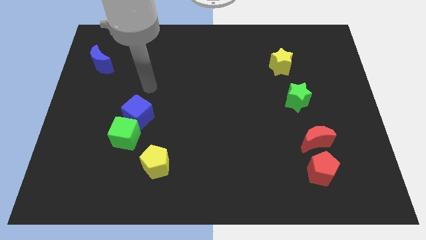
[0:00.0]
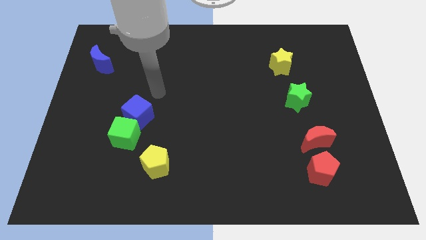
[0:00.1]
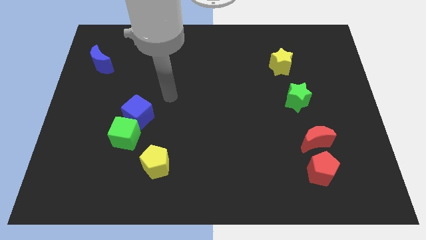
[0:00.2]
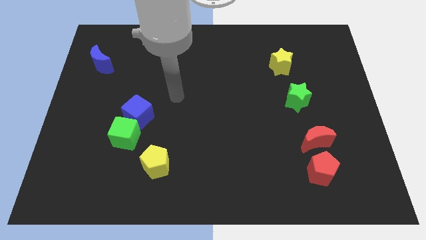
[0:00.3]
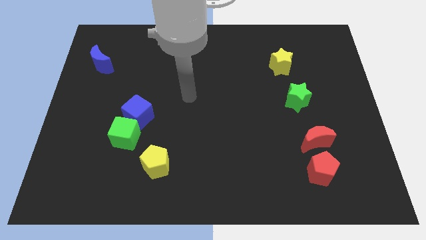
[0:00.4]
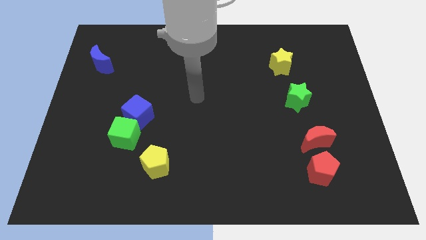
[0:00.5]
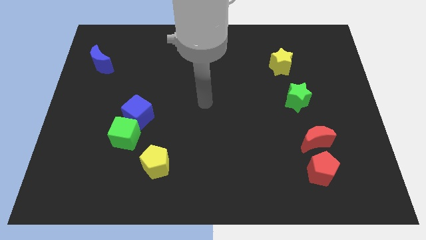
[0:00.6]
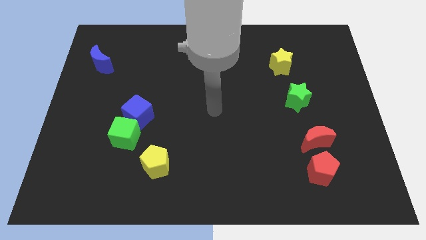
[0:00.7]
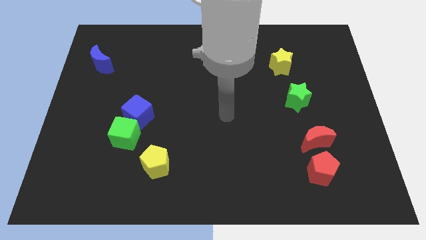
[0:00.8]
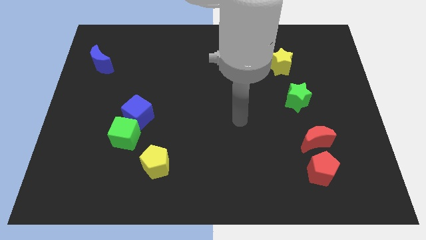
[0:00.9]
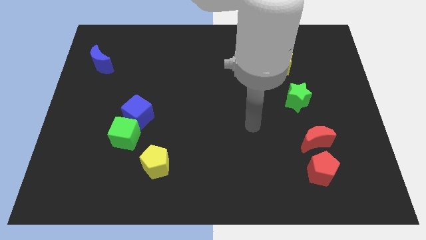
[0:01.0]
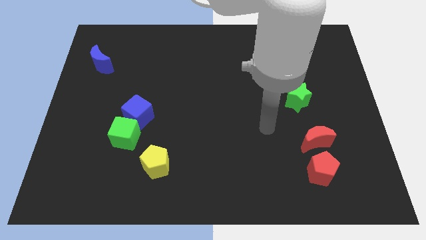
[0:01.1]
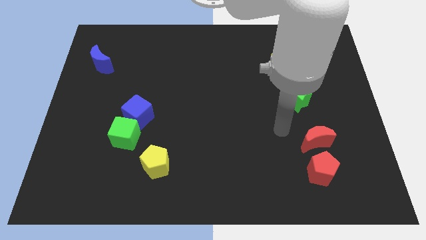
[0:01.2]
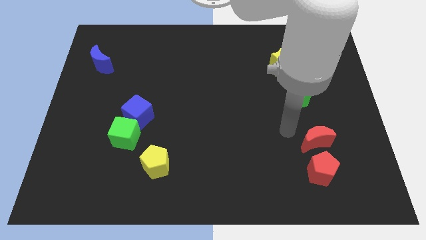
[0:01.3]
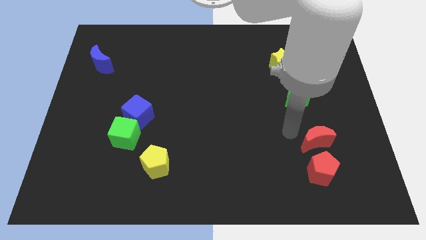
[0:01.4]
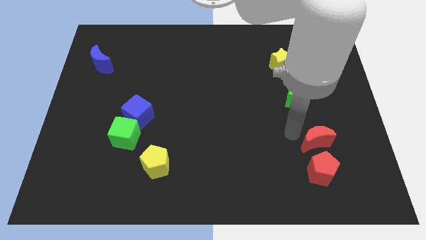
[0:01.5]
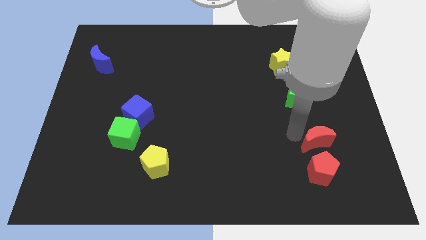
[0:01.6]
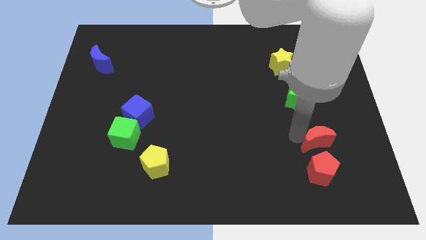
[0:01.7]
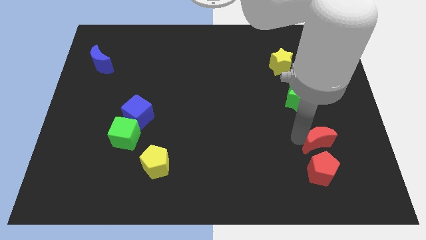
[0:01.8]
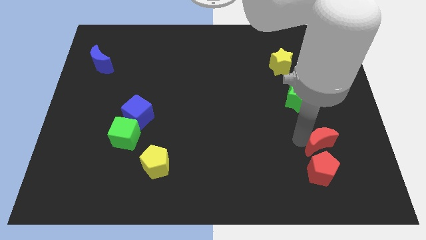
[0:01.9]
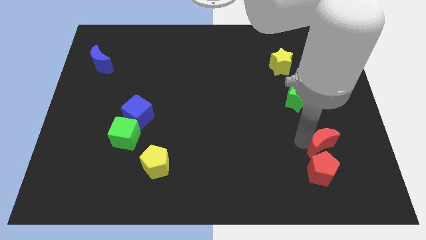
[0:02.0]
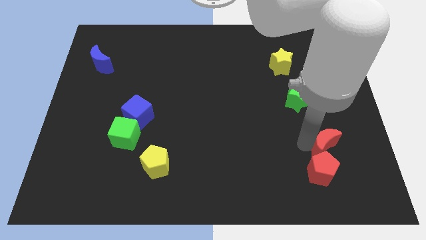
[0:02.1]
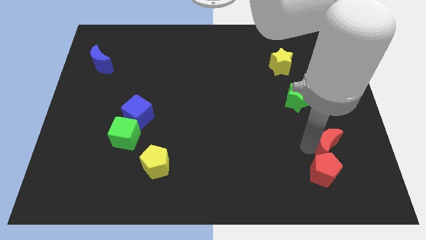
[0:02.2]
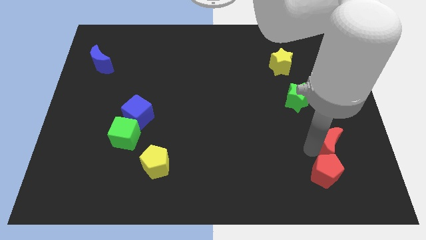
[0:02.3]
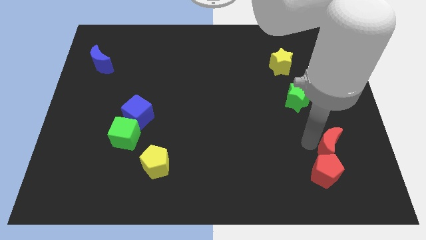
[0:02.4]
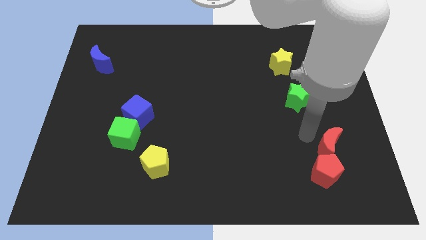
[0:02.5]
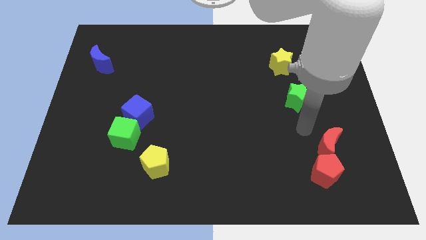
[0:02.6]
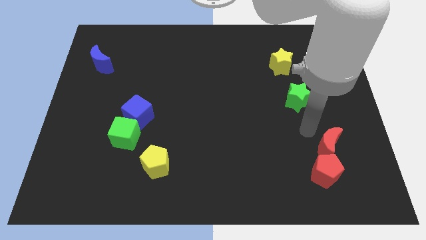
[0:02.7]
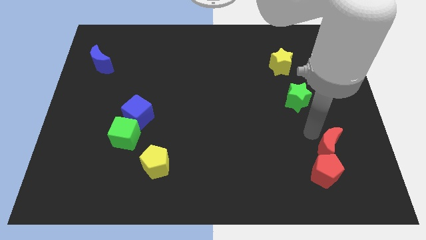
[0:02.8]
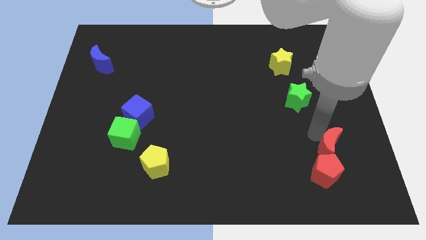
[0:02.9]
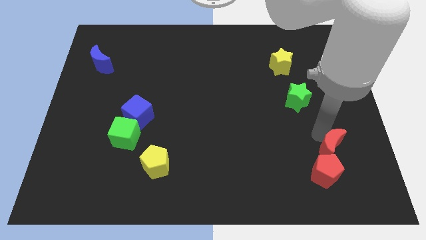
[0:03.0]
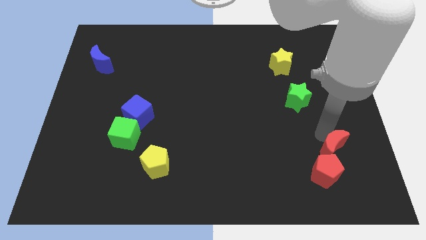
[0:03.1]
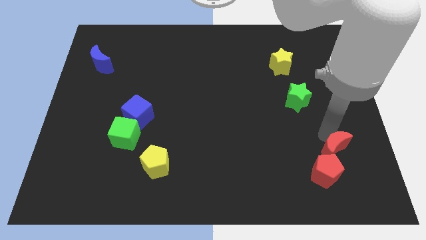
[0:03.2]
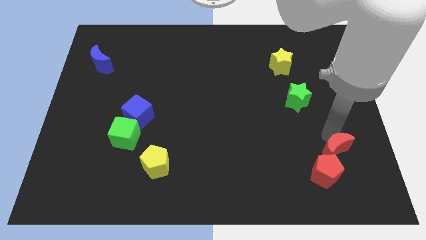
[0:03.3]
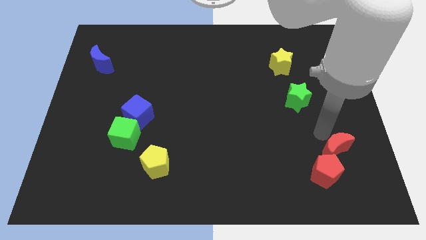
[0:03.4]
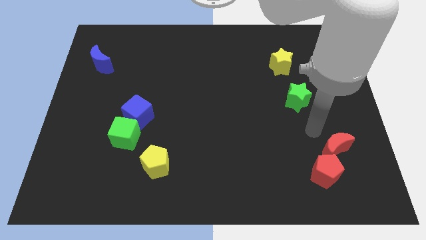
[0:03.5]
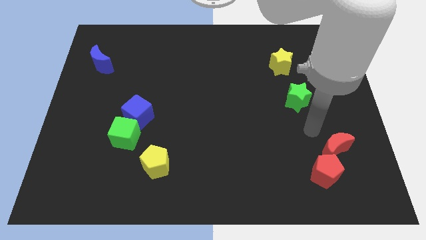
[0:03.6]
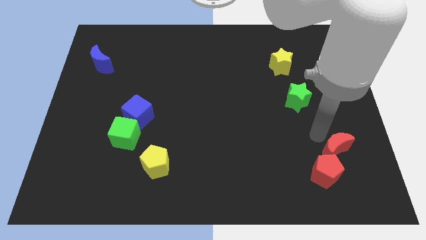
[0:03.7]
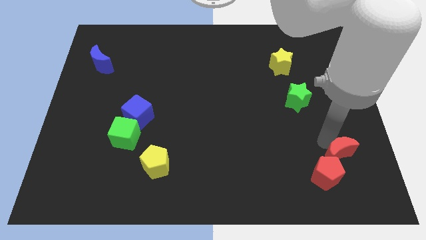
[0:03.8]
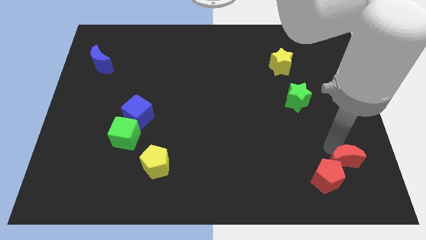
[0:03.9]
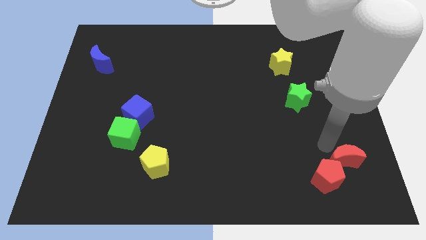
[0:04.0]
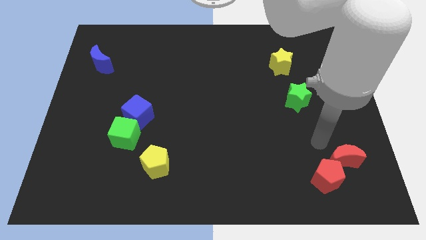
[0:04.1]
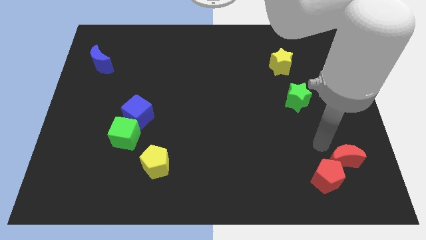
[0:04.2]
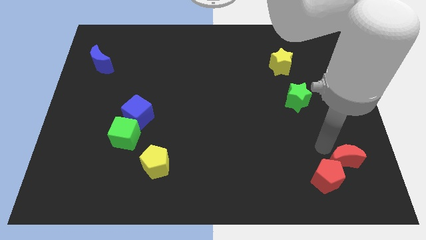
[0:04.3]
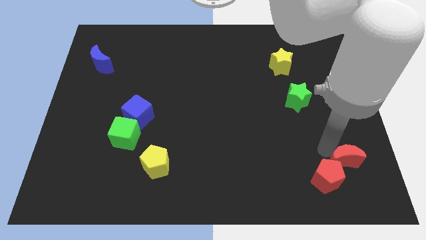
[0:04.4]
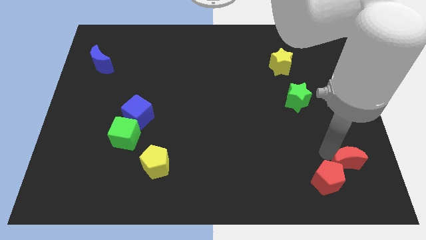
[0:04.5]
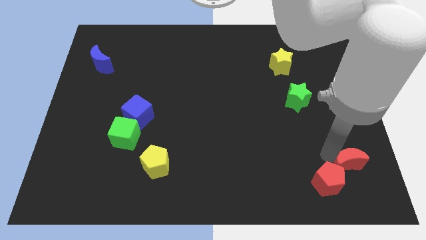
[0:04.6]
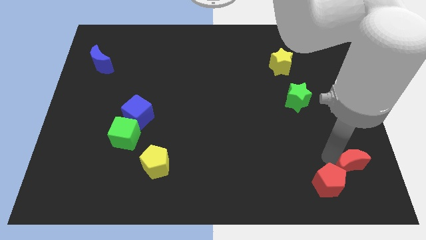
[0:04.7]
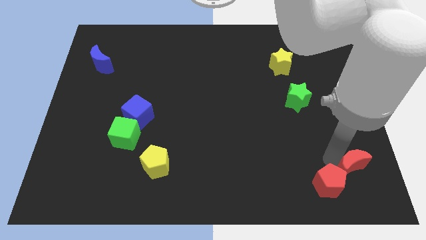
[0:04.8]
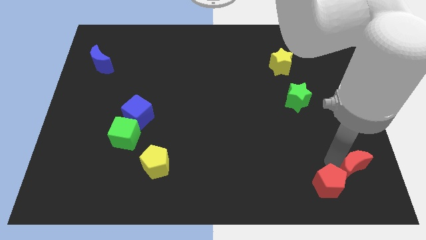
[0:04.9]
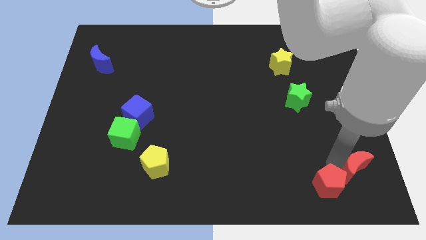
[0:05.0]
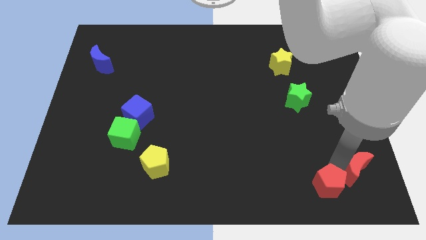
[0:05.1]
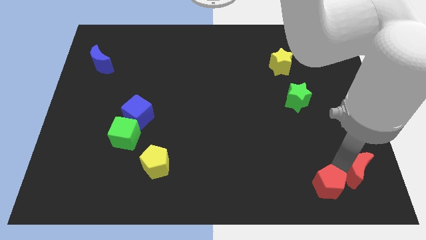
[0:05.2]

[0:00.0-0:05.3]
push the red moon to the bottom right of the board

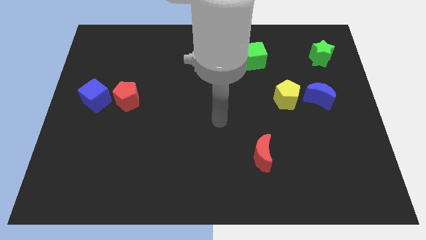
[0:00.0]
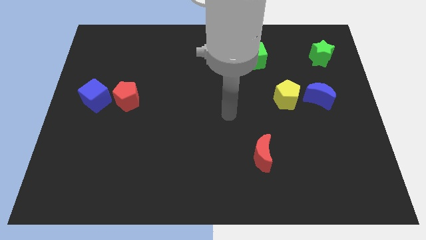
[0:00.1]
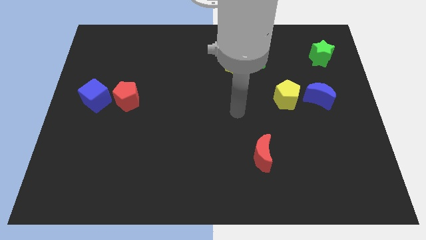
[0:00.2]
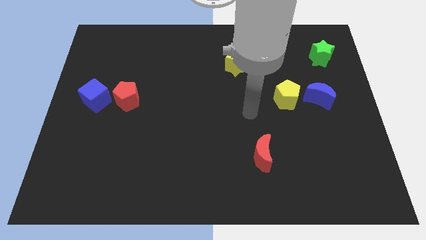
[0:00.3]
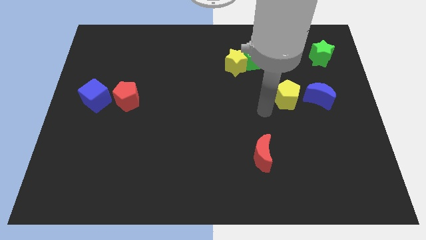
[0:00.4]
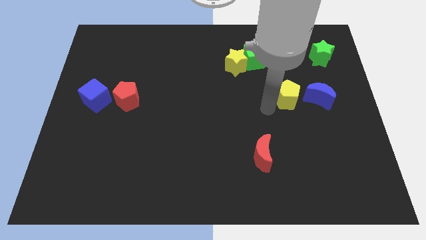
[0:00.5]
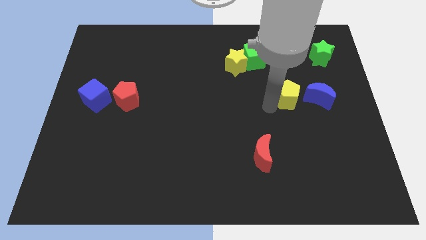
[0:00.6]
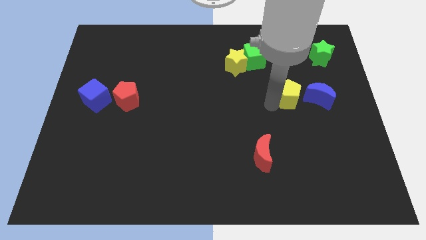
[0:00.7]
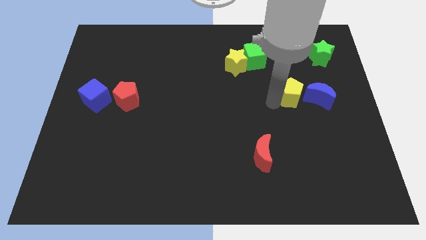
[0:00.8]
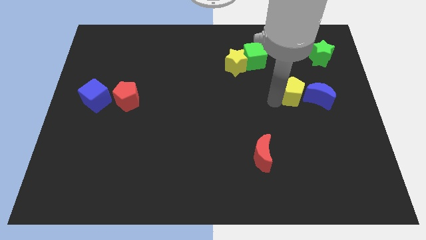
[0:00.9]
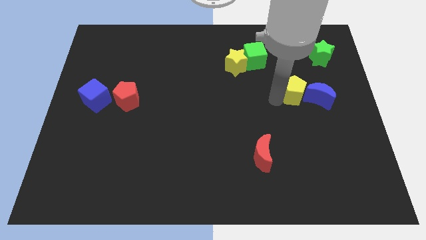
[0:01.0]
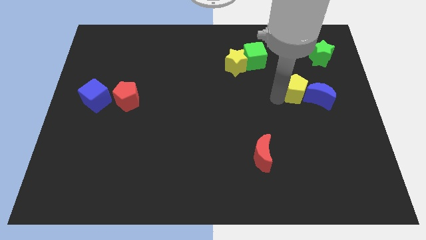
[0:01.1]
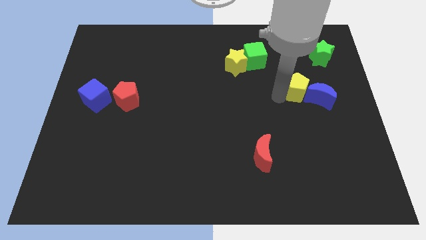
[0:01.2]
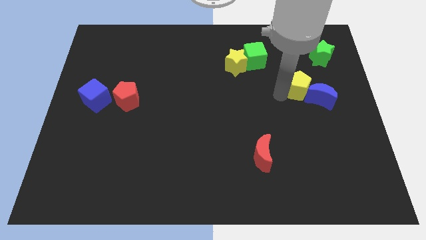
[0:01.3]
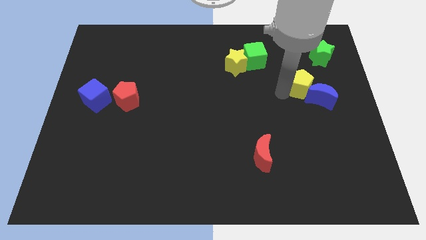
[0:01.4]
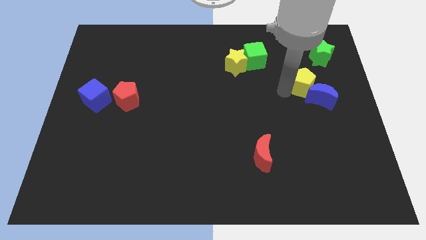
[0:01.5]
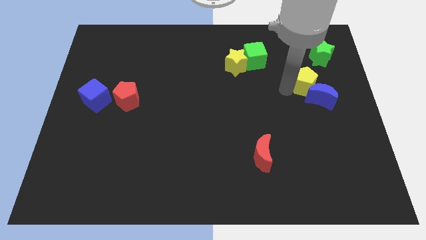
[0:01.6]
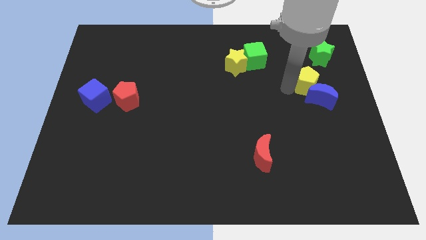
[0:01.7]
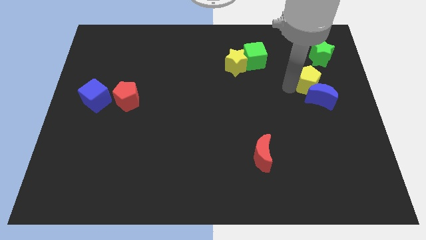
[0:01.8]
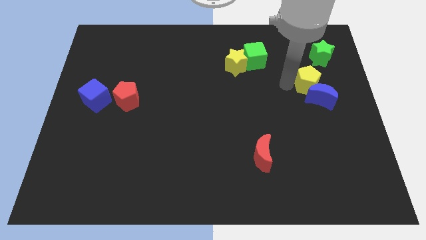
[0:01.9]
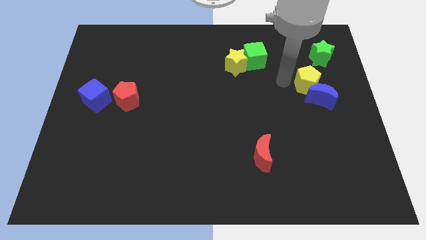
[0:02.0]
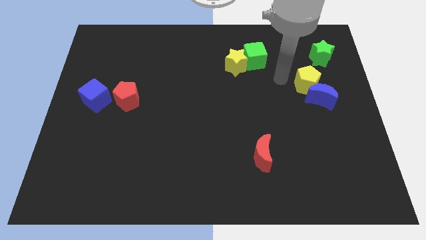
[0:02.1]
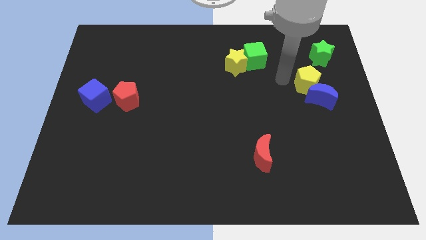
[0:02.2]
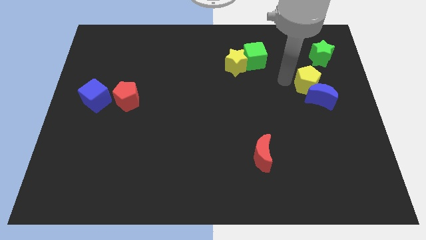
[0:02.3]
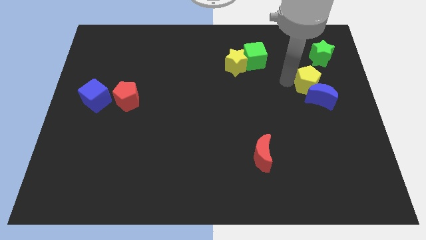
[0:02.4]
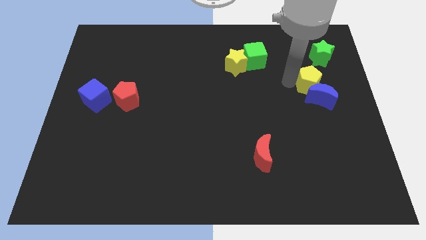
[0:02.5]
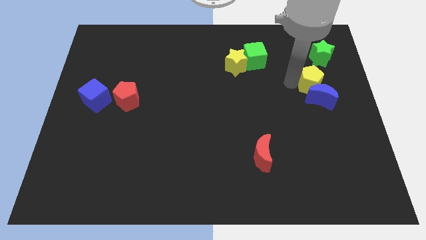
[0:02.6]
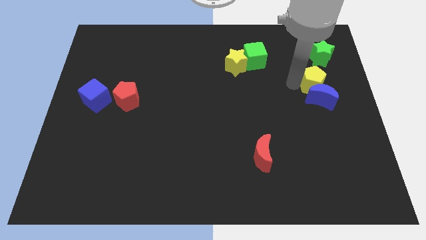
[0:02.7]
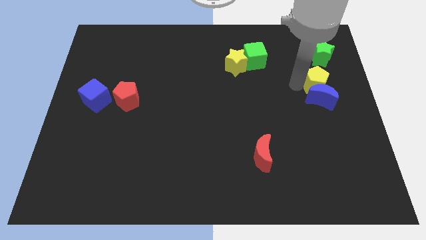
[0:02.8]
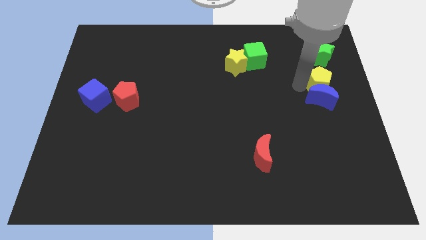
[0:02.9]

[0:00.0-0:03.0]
slide the yellow pentagon to the right side of the board
